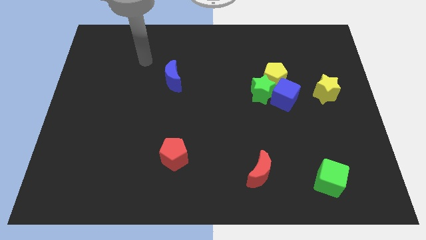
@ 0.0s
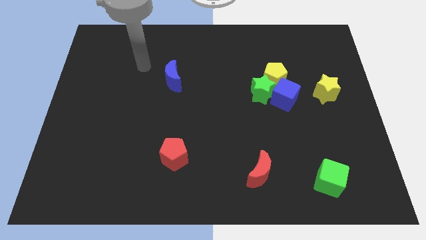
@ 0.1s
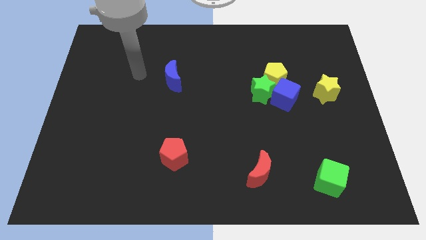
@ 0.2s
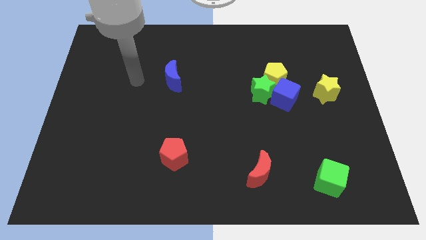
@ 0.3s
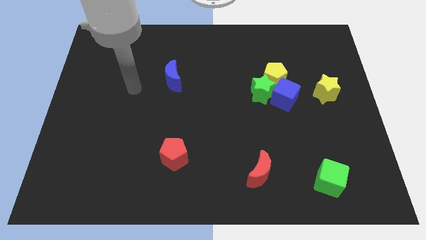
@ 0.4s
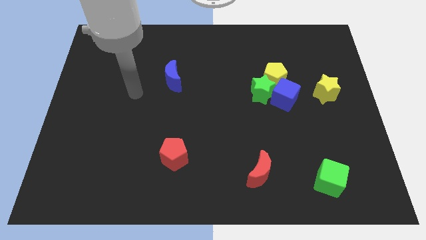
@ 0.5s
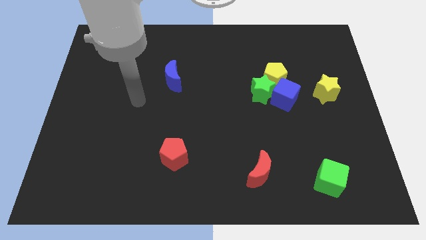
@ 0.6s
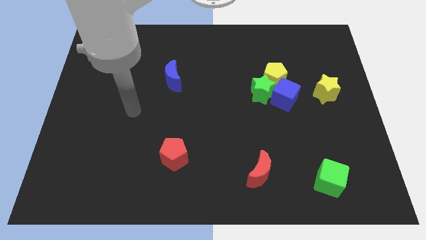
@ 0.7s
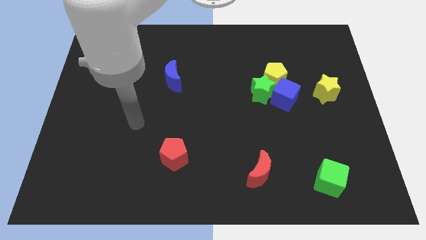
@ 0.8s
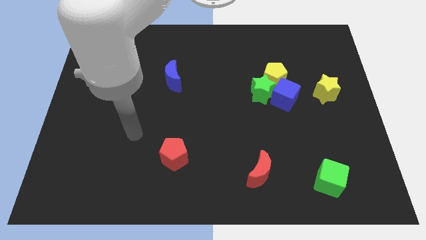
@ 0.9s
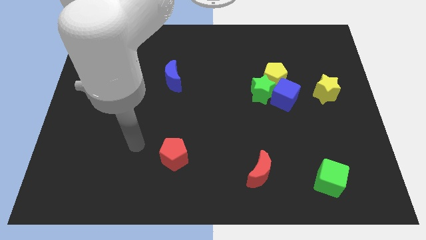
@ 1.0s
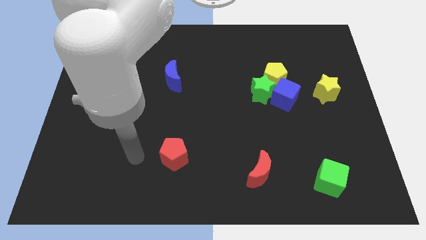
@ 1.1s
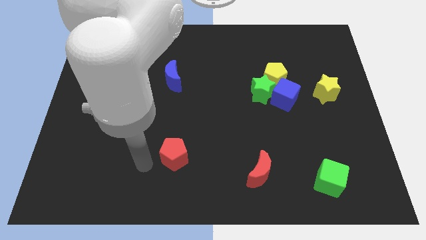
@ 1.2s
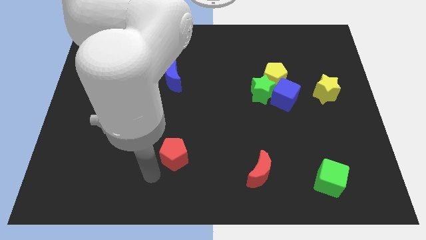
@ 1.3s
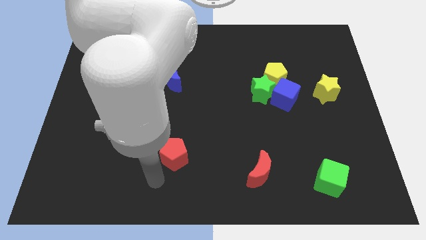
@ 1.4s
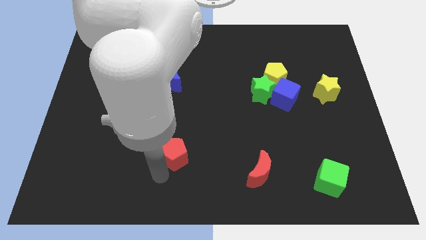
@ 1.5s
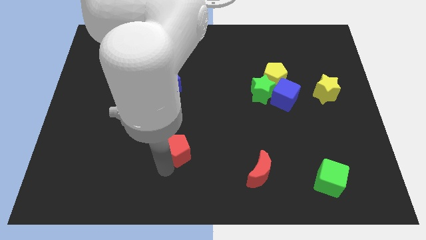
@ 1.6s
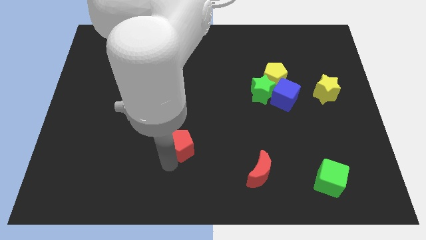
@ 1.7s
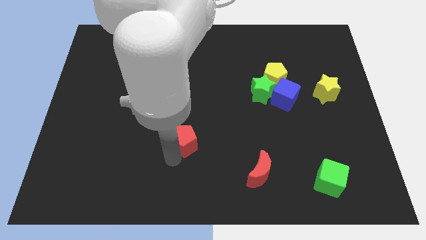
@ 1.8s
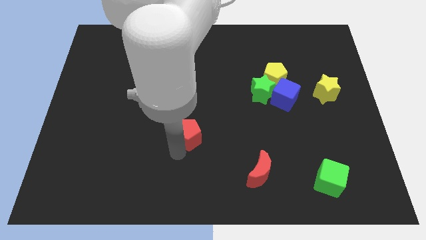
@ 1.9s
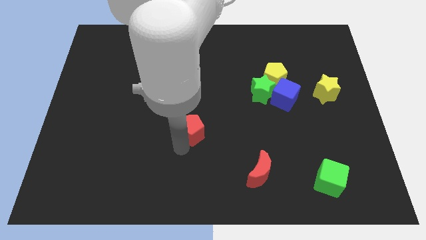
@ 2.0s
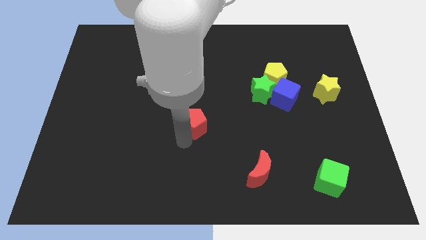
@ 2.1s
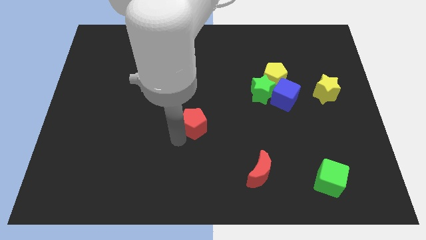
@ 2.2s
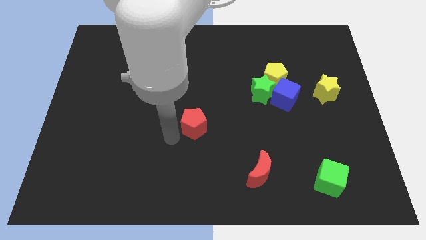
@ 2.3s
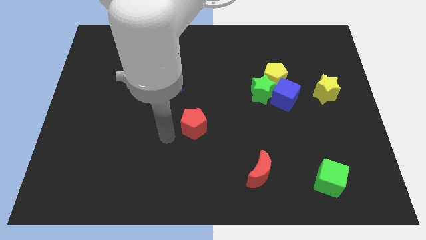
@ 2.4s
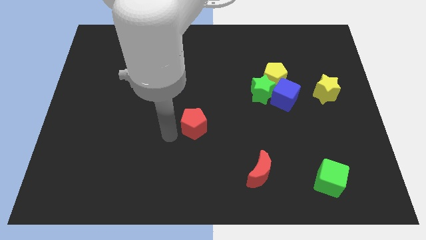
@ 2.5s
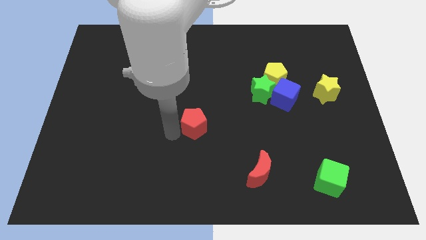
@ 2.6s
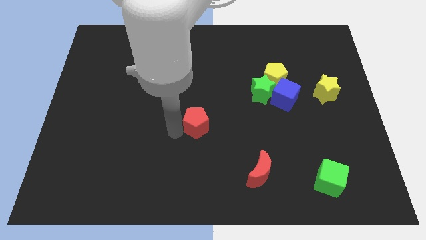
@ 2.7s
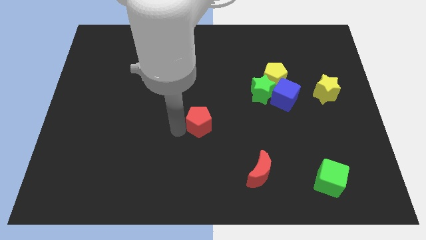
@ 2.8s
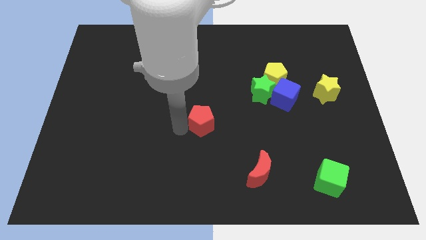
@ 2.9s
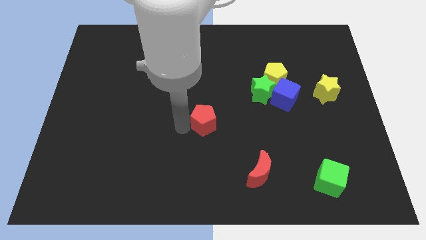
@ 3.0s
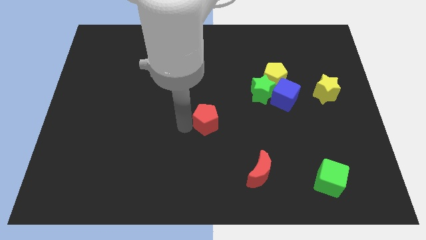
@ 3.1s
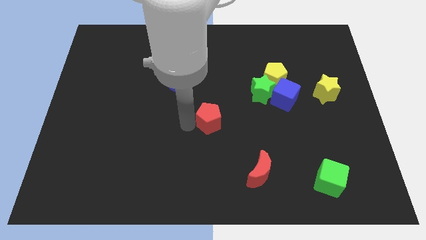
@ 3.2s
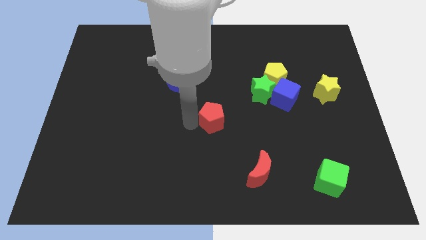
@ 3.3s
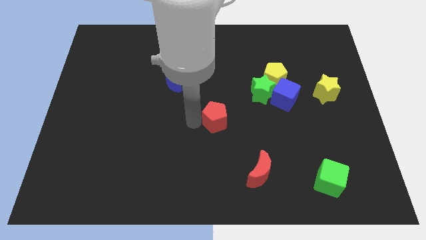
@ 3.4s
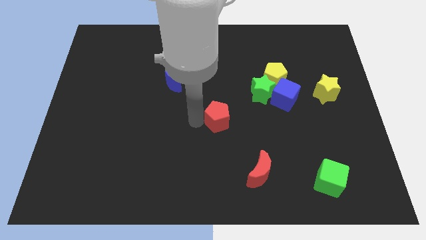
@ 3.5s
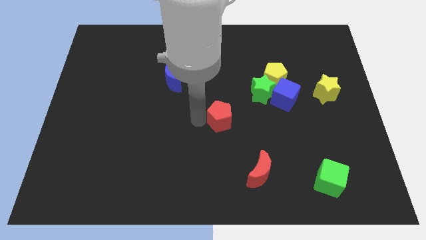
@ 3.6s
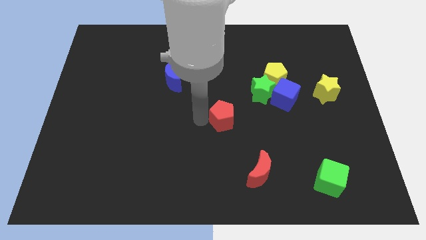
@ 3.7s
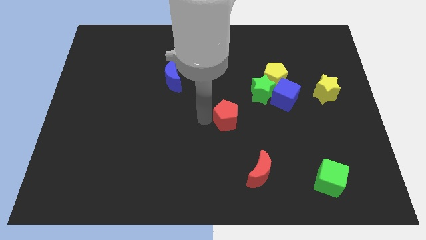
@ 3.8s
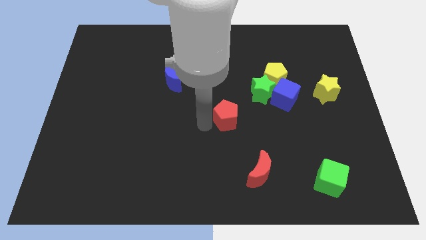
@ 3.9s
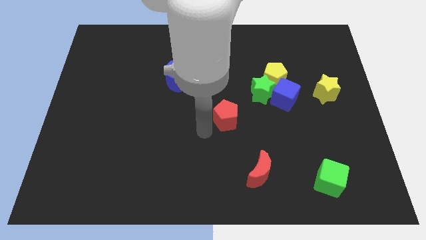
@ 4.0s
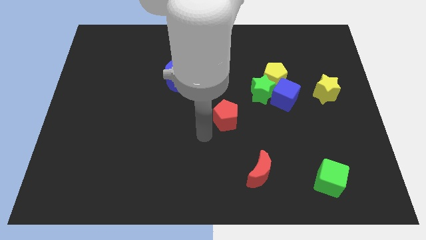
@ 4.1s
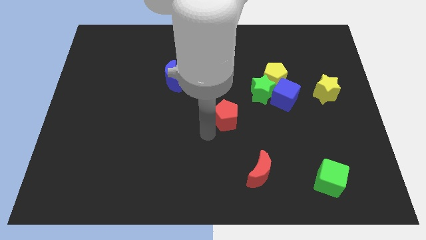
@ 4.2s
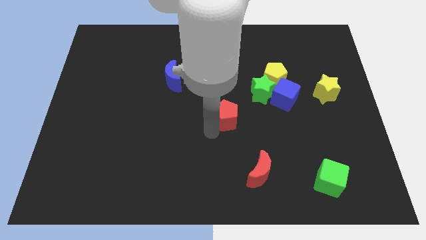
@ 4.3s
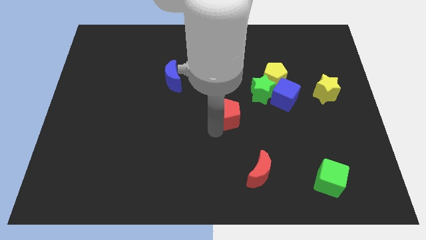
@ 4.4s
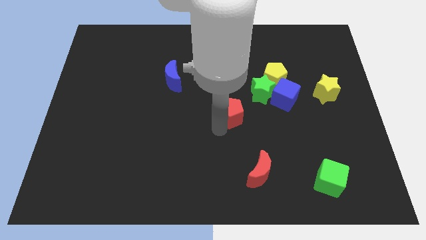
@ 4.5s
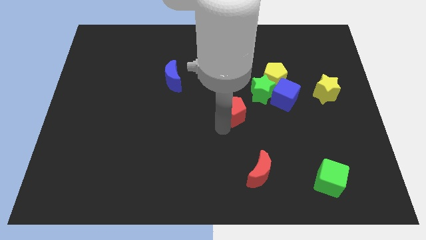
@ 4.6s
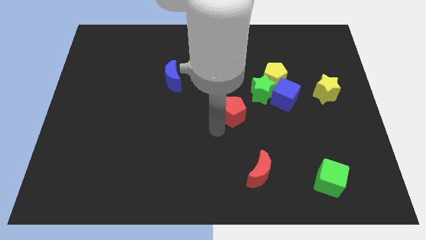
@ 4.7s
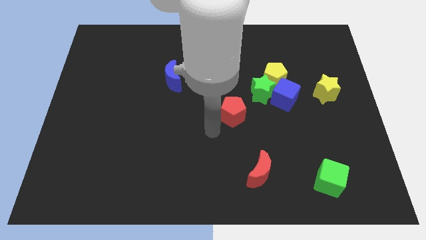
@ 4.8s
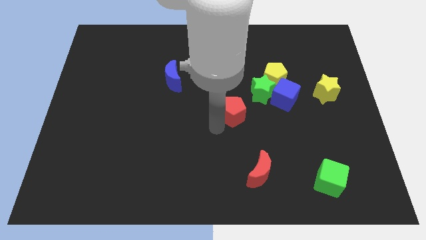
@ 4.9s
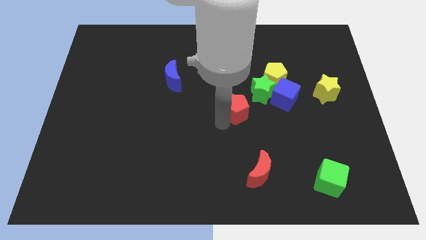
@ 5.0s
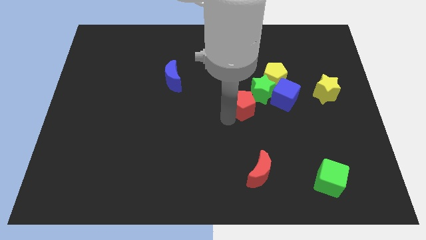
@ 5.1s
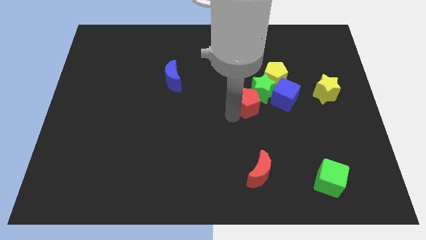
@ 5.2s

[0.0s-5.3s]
slide the red pentagon to the green star

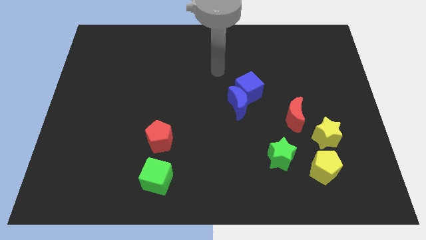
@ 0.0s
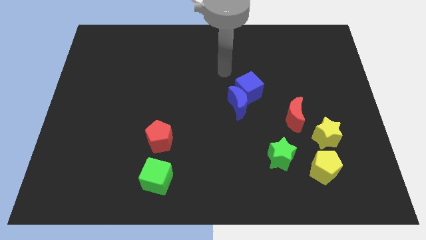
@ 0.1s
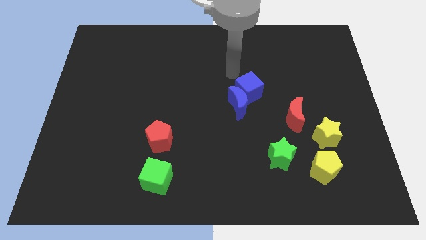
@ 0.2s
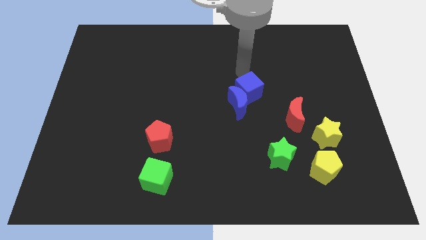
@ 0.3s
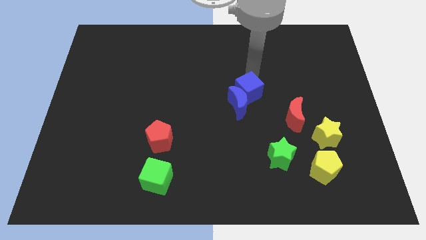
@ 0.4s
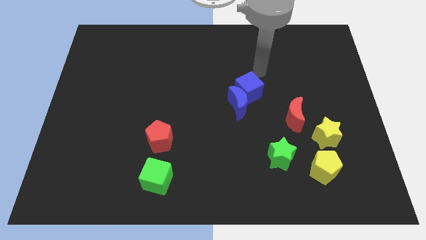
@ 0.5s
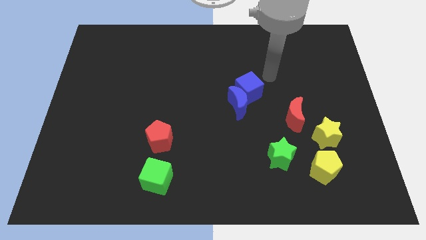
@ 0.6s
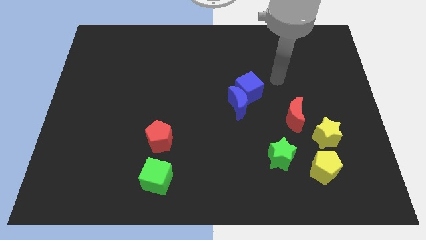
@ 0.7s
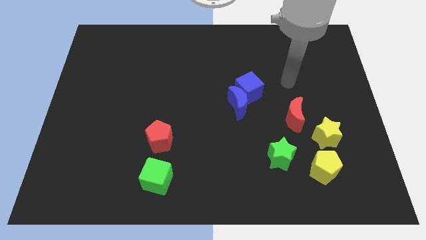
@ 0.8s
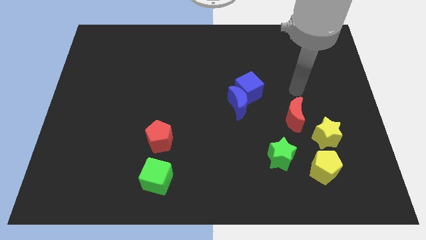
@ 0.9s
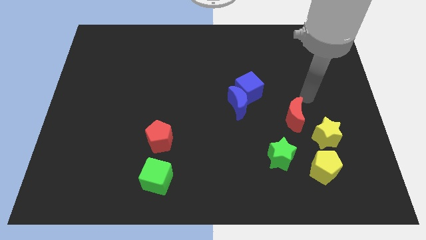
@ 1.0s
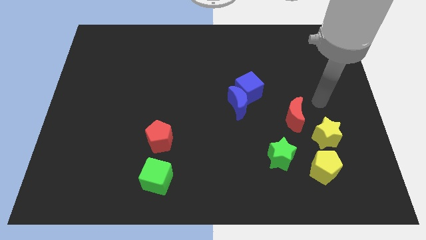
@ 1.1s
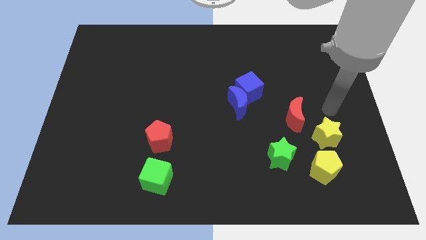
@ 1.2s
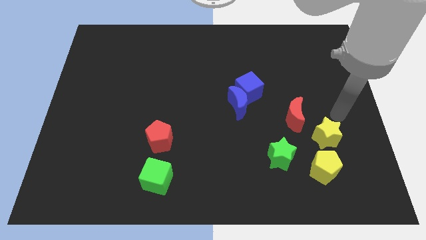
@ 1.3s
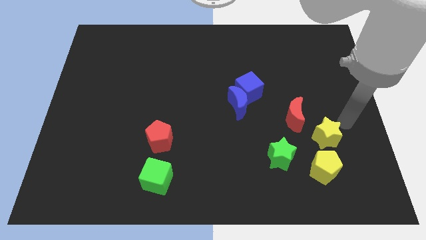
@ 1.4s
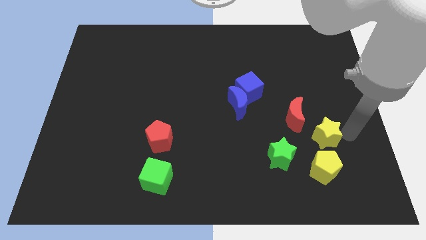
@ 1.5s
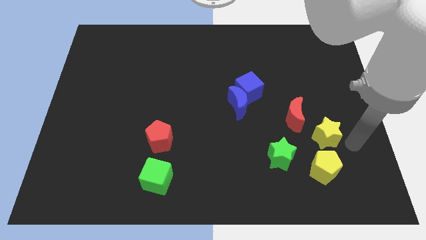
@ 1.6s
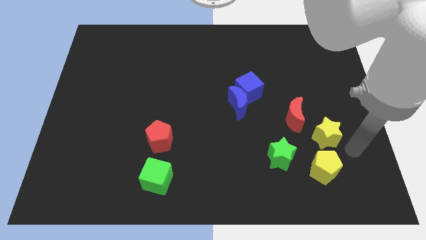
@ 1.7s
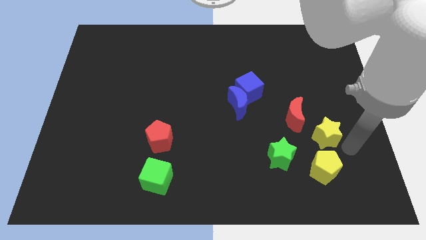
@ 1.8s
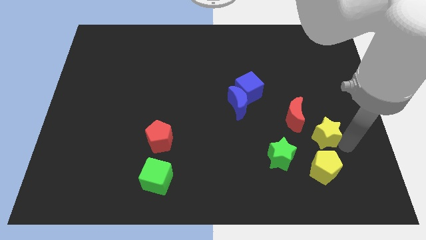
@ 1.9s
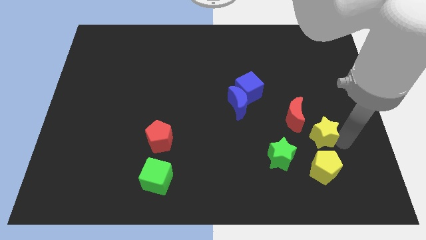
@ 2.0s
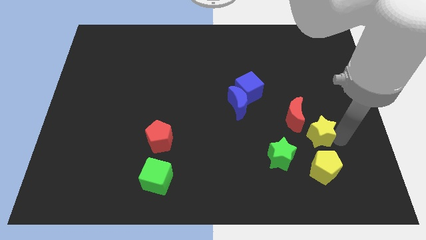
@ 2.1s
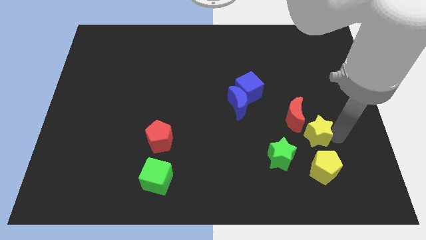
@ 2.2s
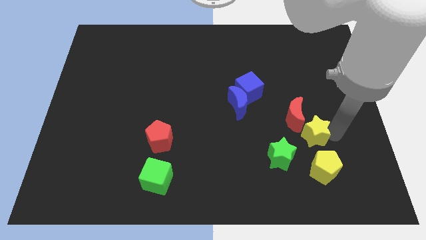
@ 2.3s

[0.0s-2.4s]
push the yellow star towards the red moon
